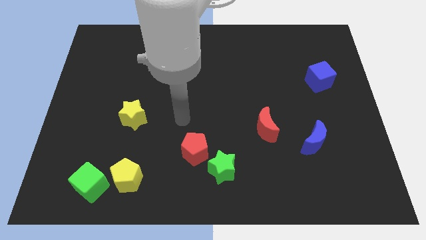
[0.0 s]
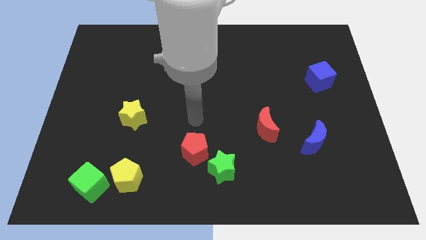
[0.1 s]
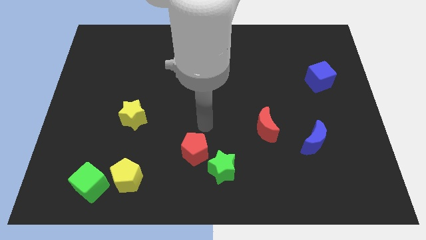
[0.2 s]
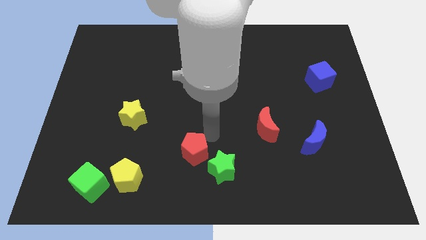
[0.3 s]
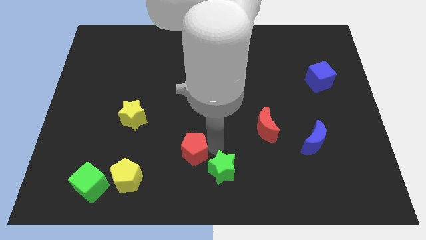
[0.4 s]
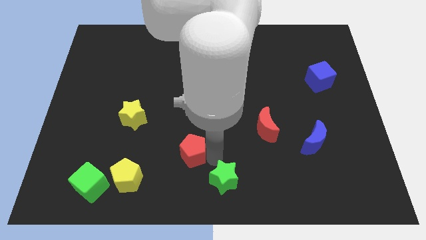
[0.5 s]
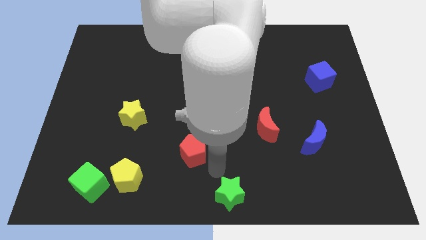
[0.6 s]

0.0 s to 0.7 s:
move the red pentagon away from the green star

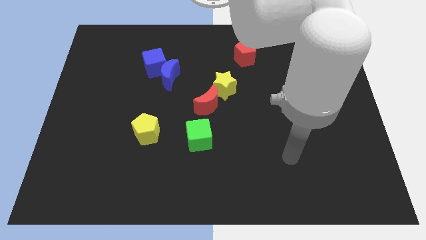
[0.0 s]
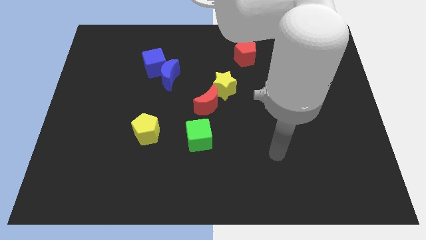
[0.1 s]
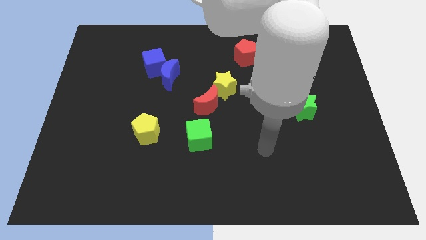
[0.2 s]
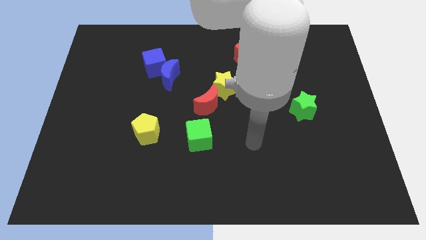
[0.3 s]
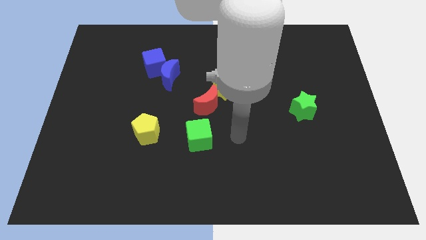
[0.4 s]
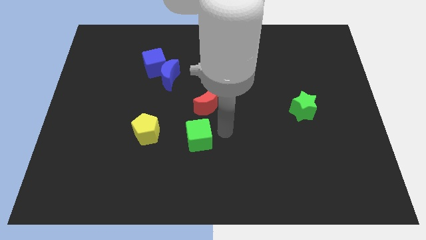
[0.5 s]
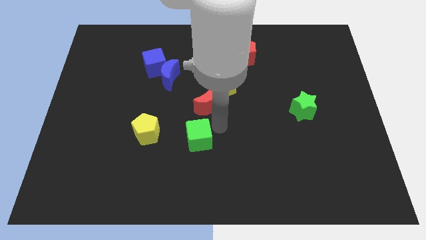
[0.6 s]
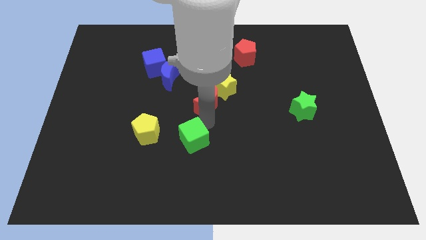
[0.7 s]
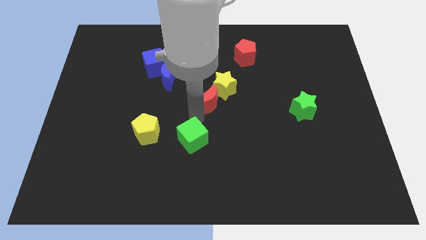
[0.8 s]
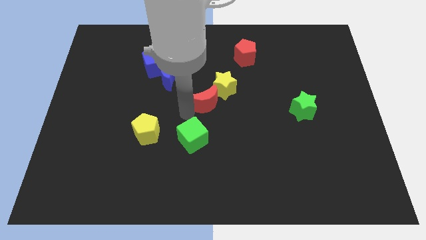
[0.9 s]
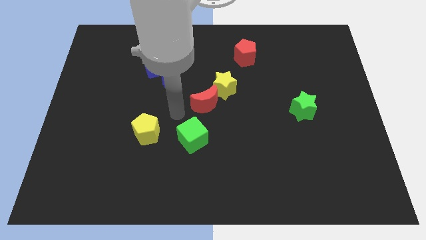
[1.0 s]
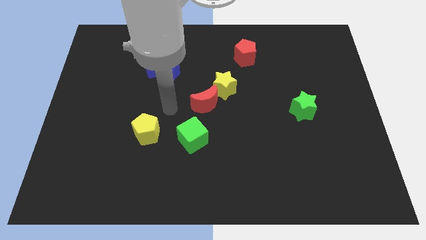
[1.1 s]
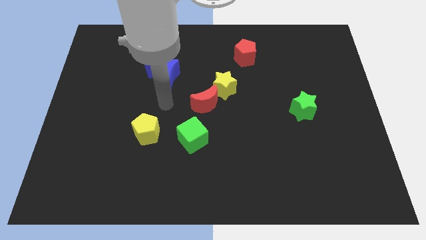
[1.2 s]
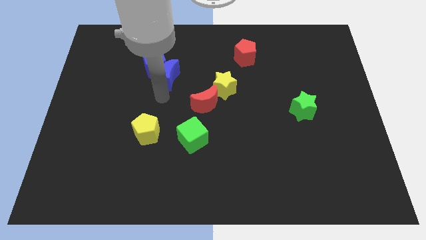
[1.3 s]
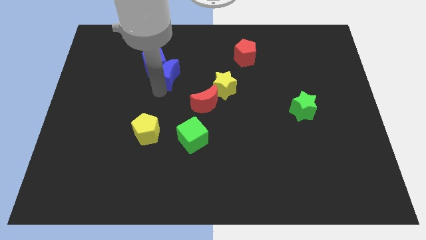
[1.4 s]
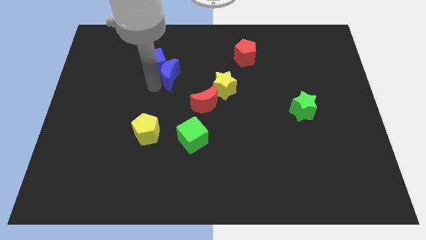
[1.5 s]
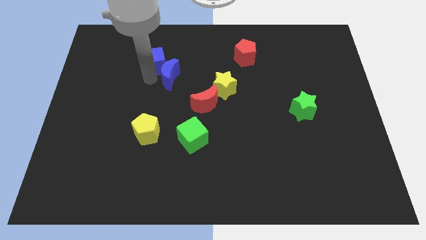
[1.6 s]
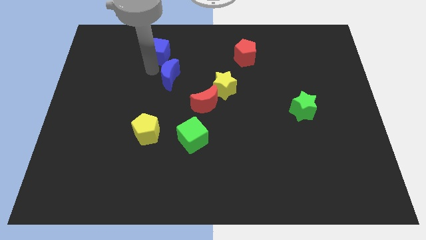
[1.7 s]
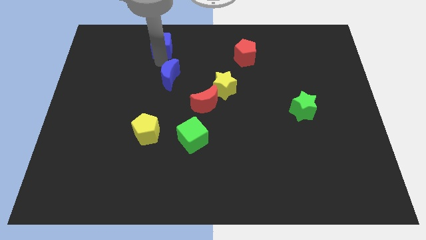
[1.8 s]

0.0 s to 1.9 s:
move the blue moon away from the blue cube

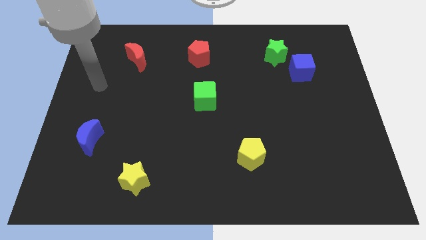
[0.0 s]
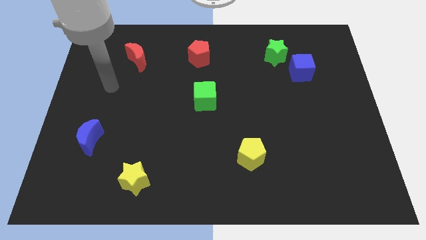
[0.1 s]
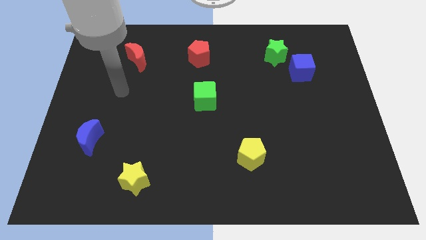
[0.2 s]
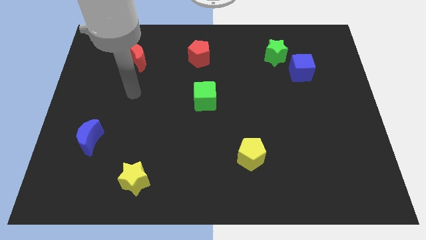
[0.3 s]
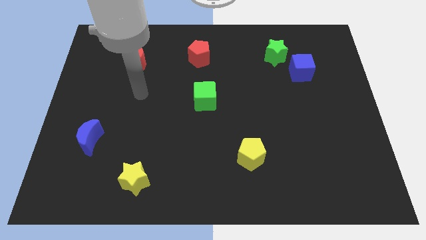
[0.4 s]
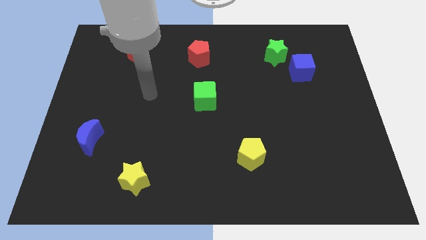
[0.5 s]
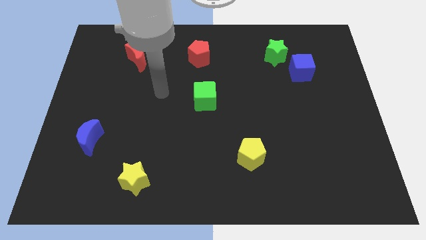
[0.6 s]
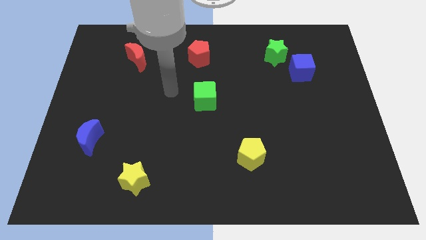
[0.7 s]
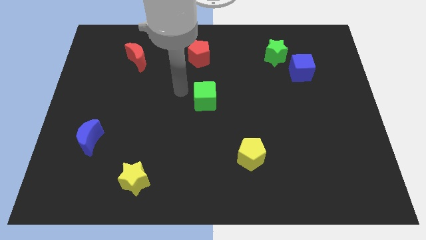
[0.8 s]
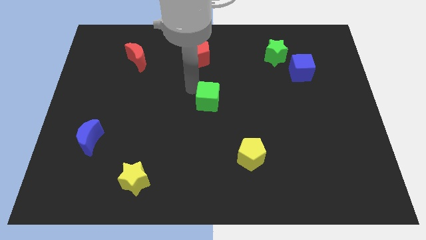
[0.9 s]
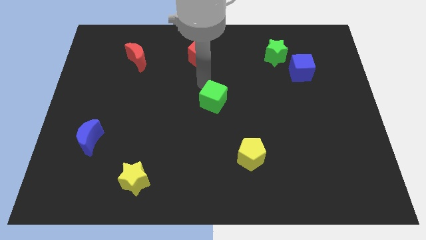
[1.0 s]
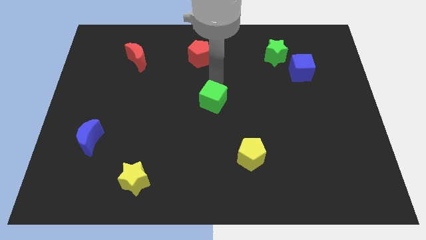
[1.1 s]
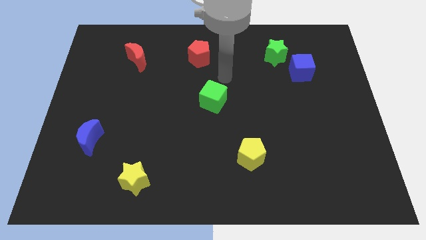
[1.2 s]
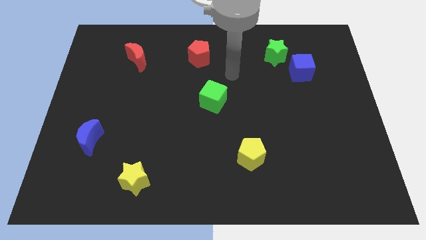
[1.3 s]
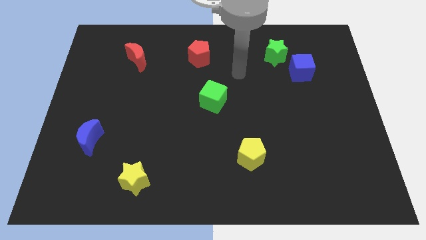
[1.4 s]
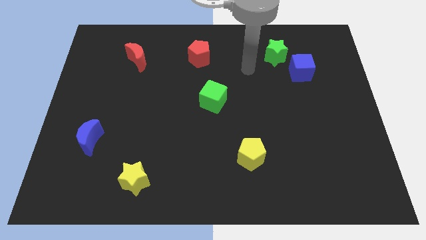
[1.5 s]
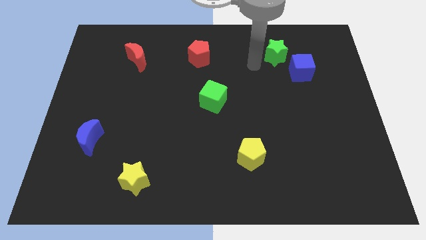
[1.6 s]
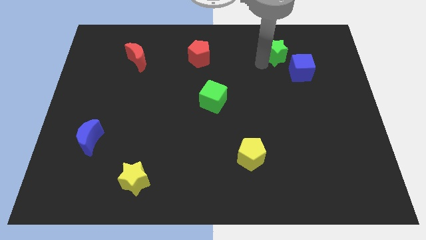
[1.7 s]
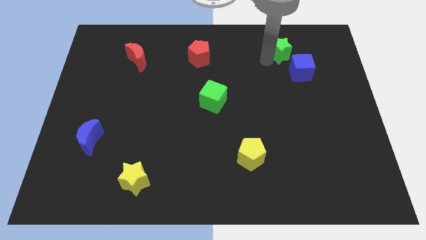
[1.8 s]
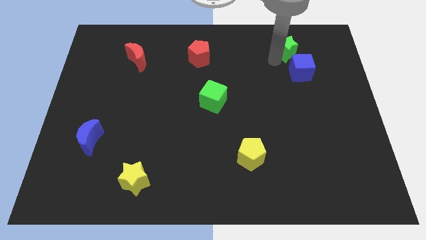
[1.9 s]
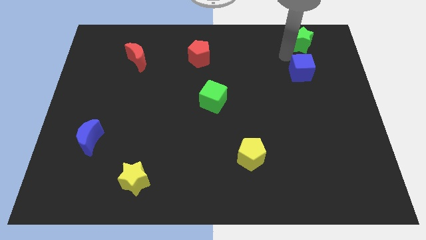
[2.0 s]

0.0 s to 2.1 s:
pull the blue cube apart from the green star

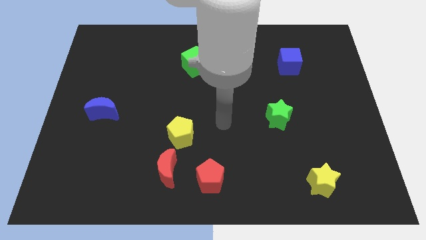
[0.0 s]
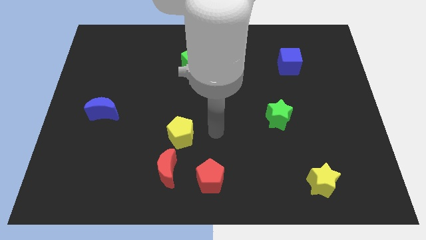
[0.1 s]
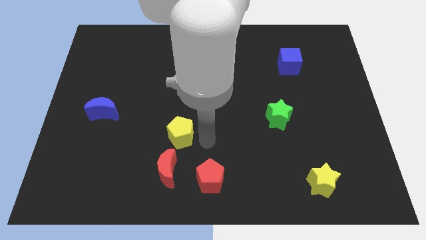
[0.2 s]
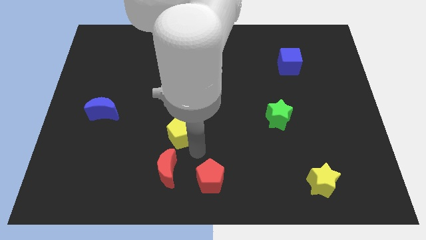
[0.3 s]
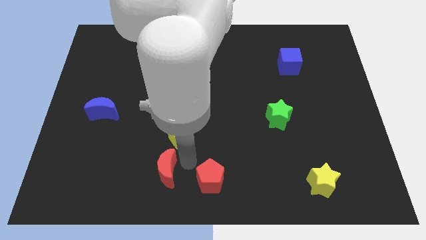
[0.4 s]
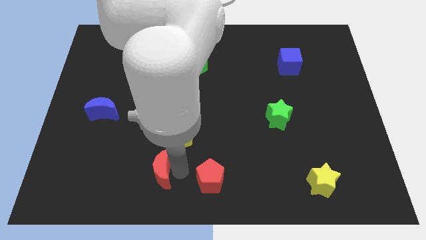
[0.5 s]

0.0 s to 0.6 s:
move the red pentagon away from the red moon

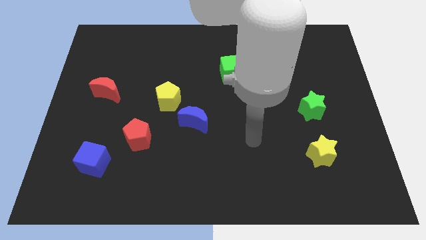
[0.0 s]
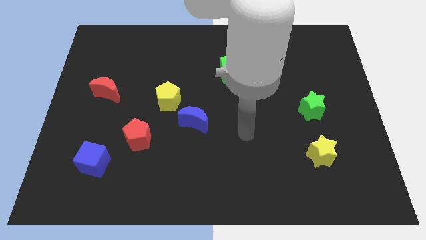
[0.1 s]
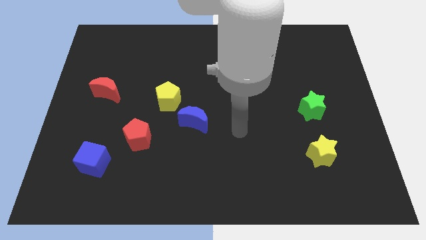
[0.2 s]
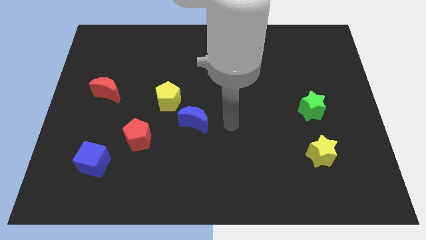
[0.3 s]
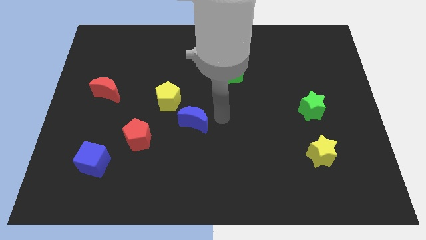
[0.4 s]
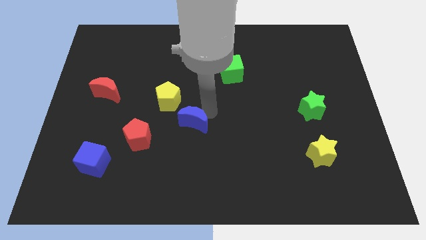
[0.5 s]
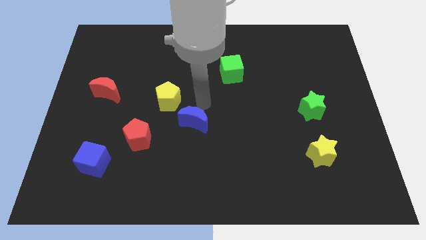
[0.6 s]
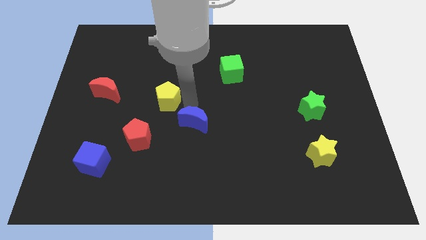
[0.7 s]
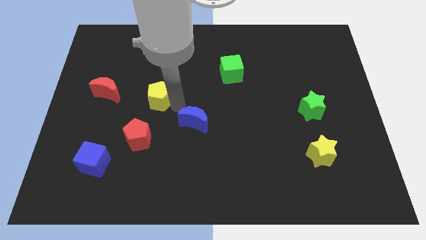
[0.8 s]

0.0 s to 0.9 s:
separate the blue moon from the yellow pentagon

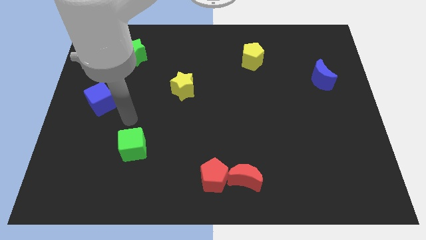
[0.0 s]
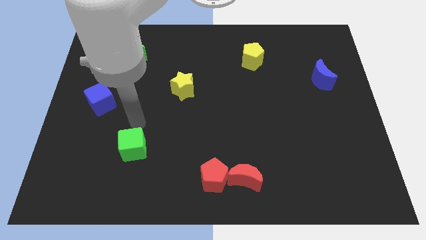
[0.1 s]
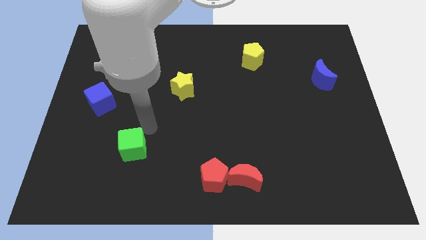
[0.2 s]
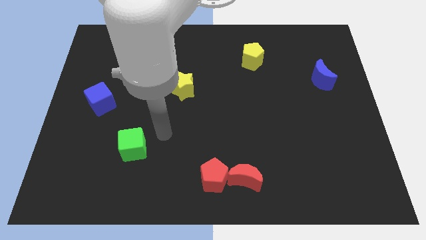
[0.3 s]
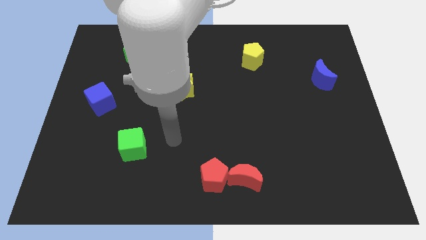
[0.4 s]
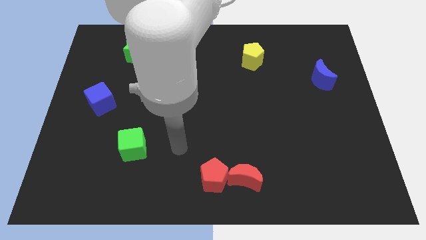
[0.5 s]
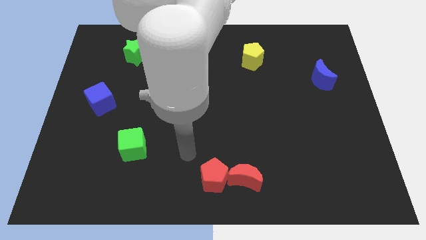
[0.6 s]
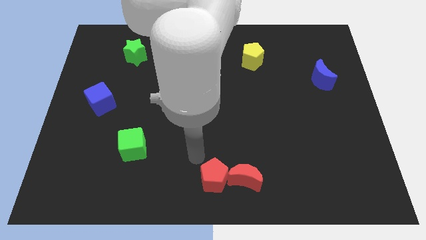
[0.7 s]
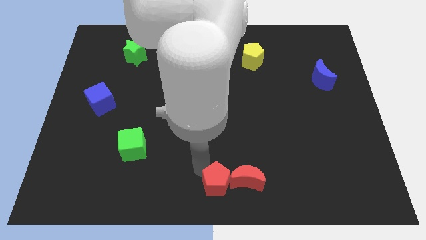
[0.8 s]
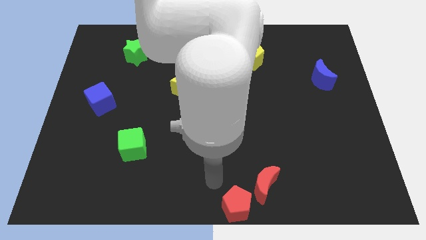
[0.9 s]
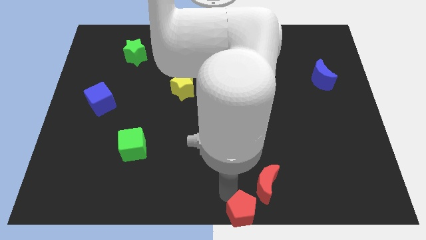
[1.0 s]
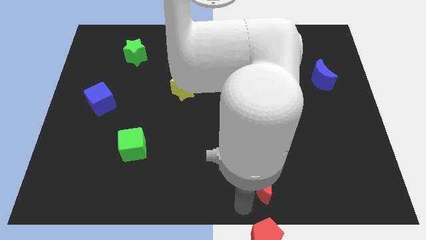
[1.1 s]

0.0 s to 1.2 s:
separate the red moon from the red pentagon

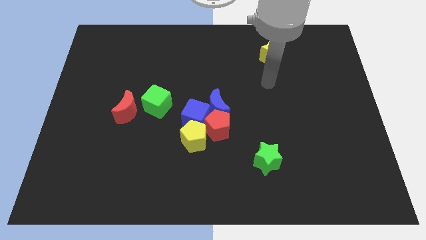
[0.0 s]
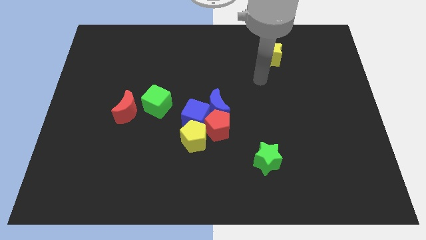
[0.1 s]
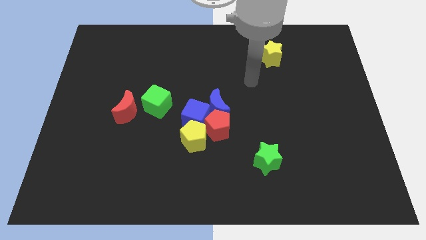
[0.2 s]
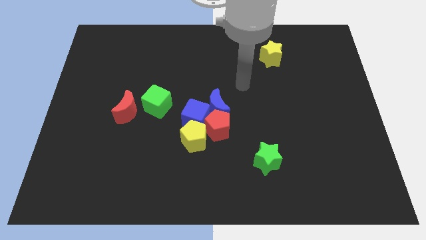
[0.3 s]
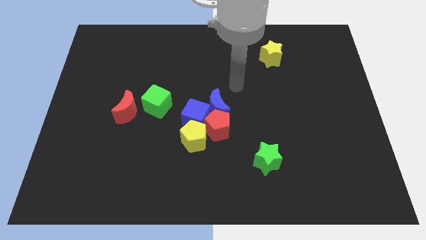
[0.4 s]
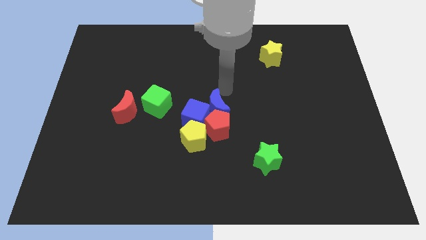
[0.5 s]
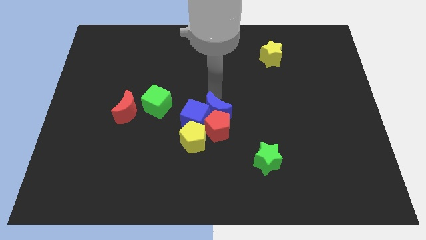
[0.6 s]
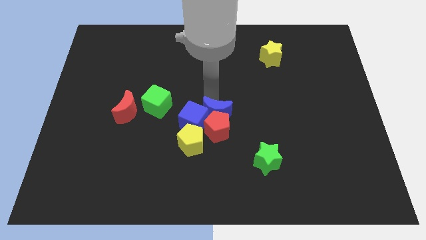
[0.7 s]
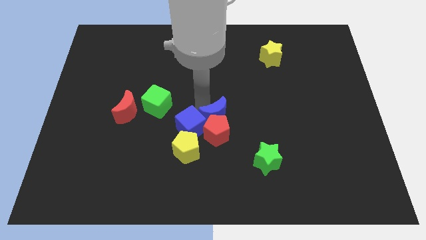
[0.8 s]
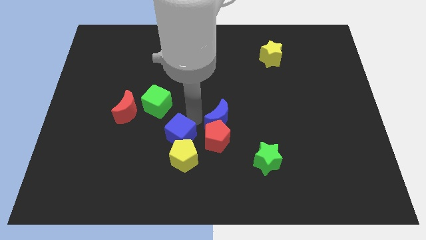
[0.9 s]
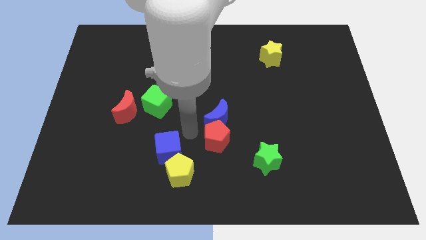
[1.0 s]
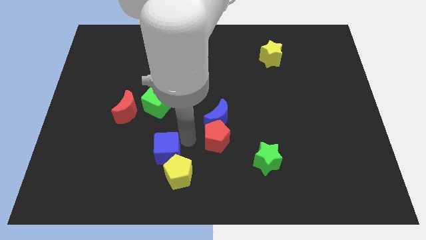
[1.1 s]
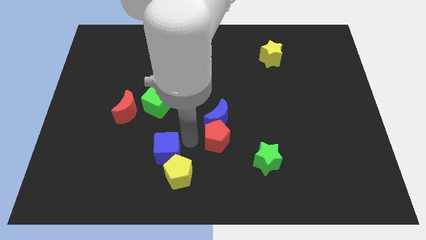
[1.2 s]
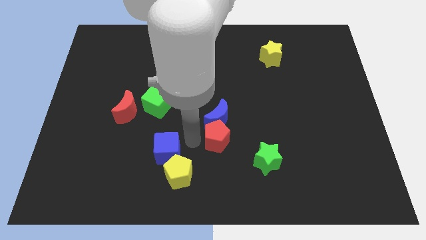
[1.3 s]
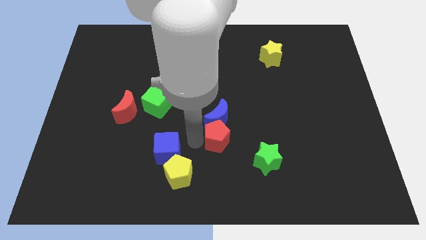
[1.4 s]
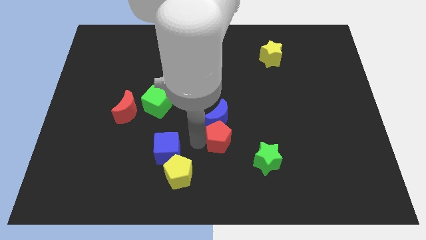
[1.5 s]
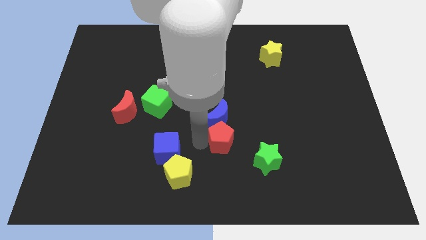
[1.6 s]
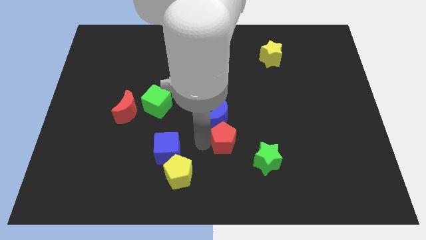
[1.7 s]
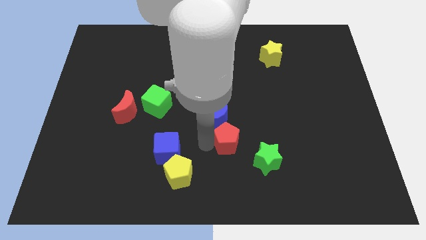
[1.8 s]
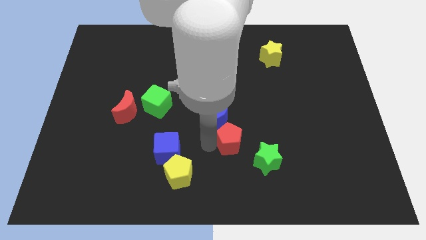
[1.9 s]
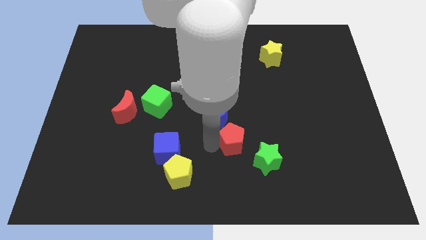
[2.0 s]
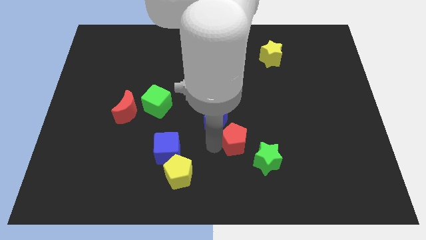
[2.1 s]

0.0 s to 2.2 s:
move the red pentagon away from the blue moon, yellow pentagon, and blue cube
